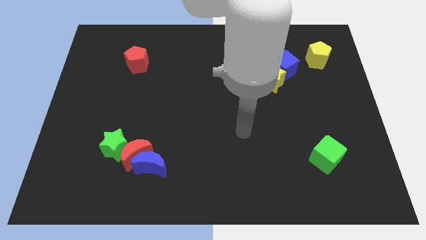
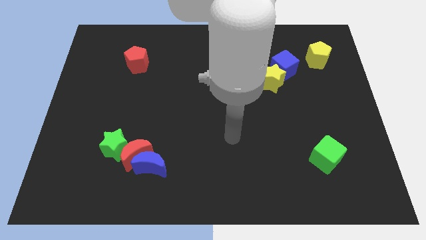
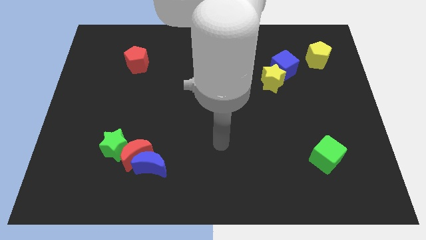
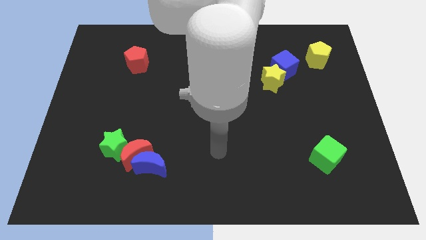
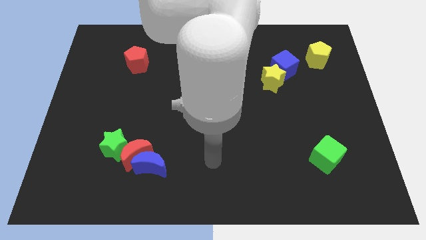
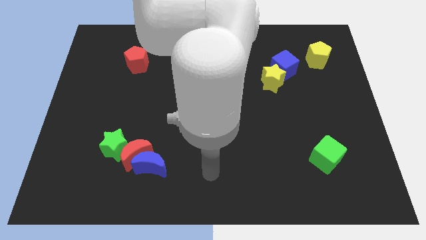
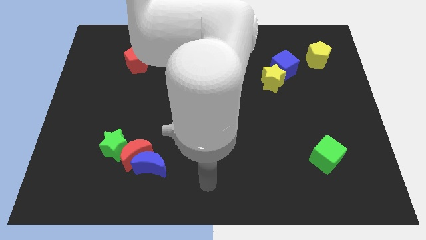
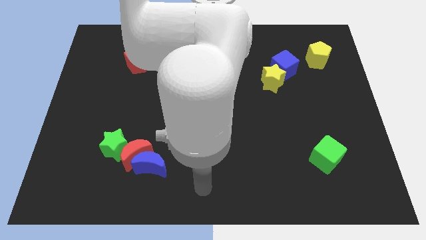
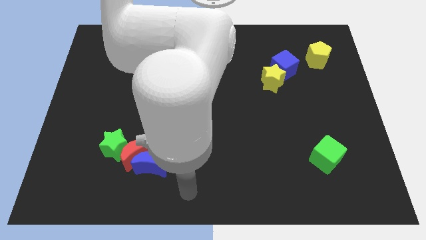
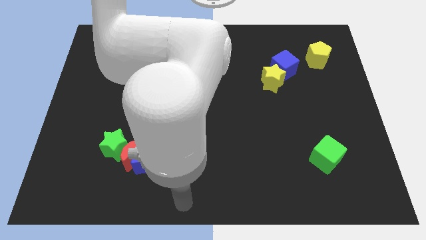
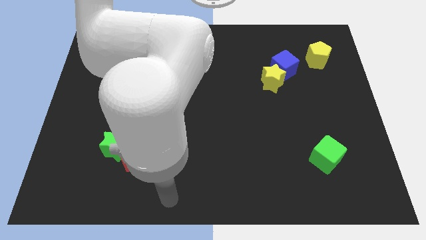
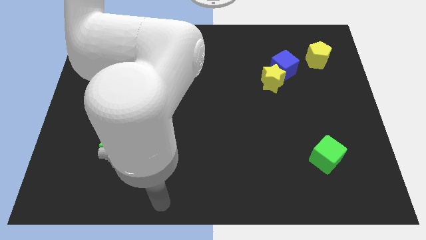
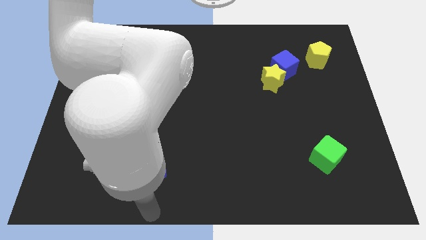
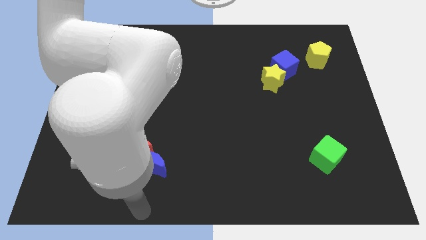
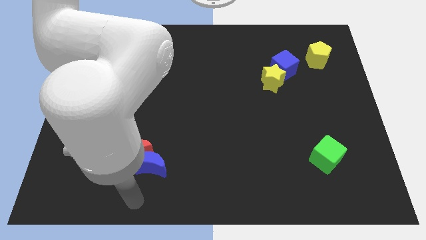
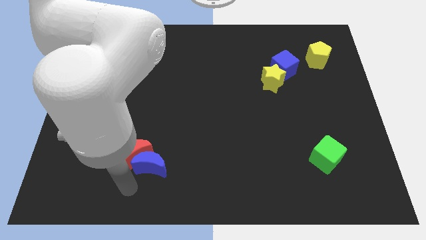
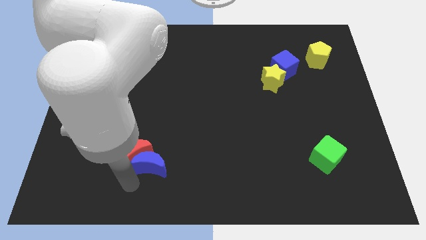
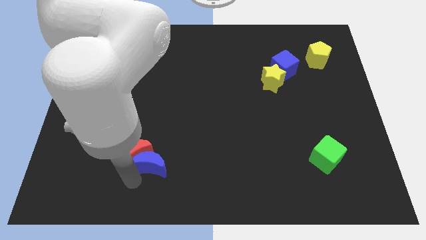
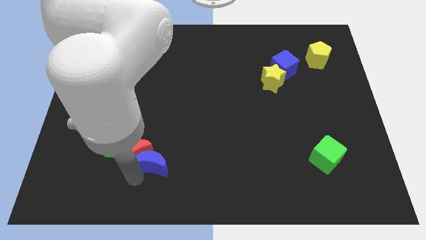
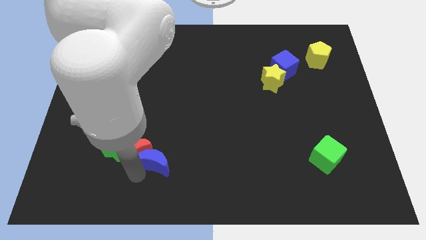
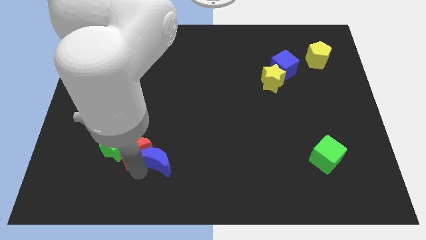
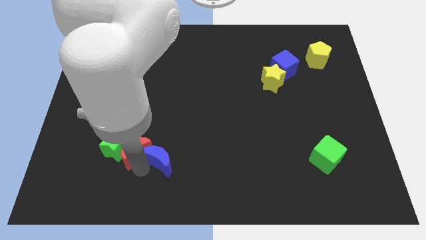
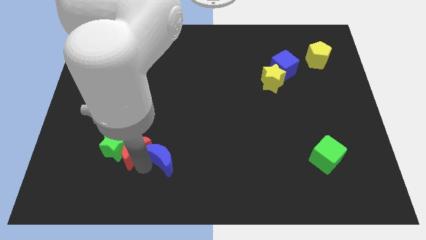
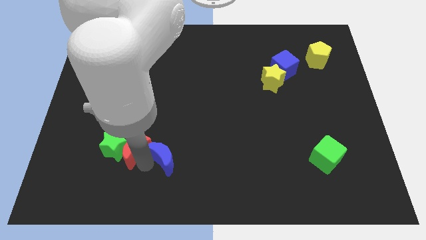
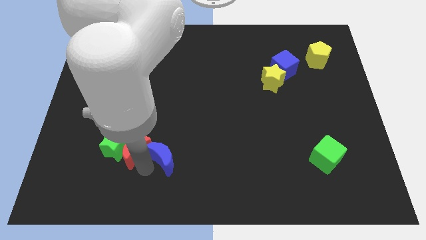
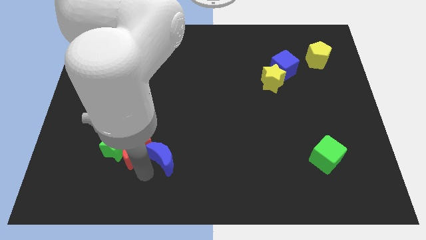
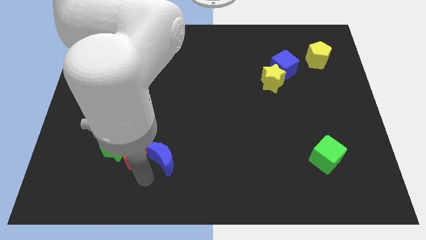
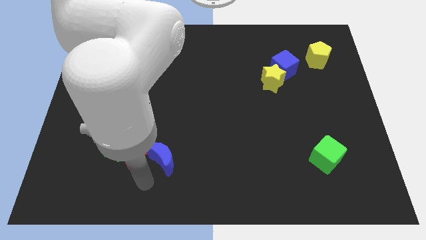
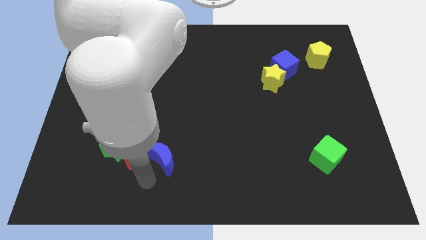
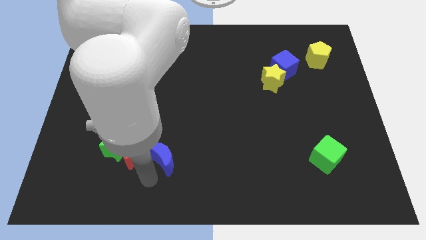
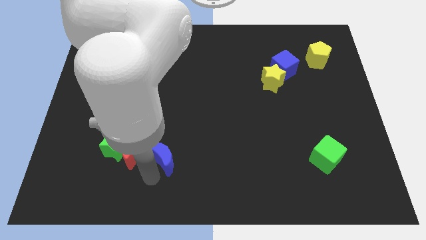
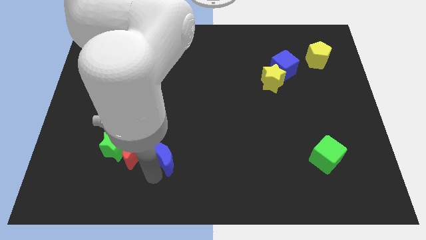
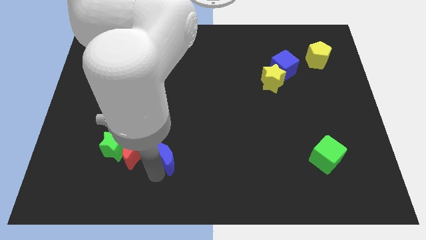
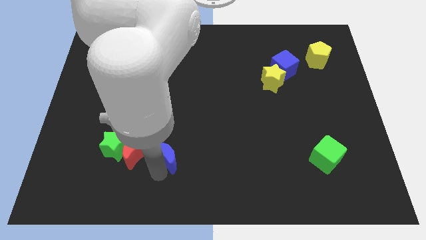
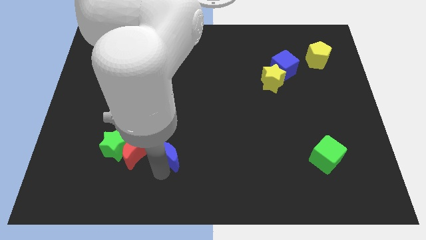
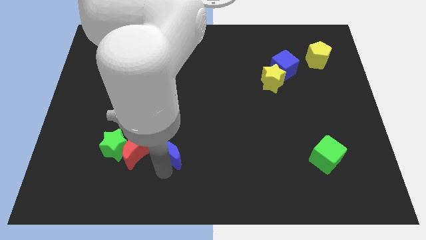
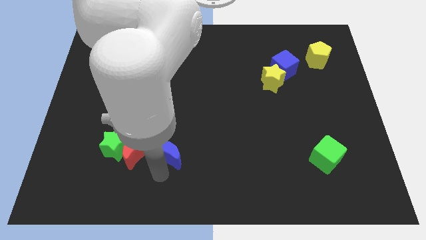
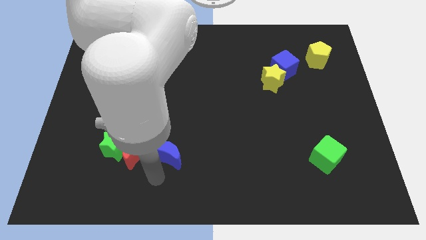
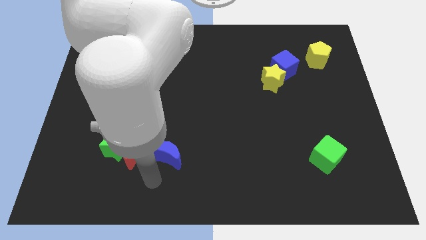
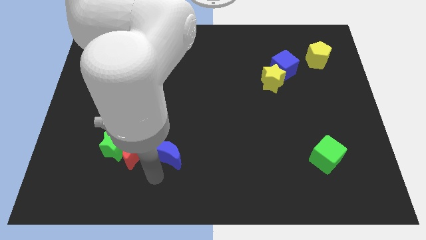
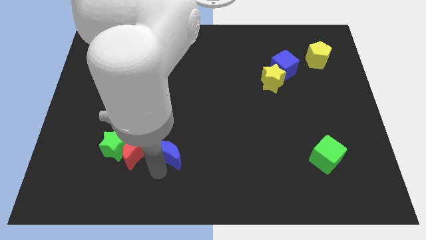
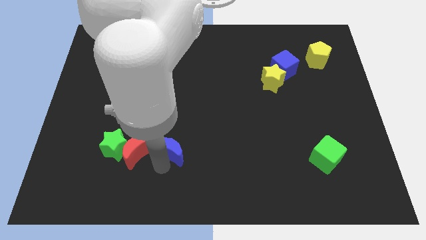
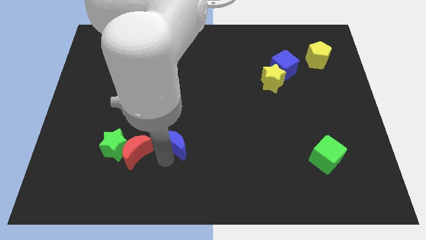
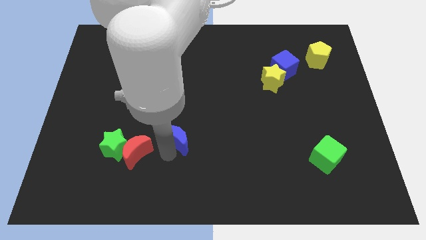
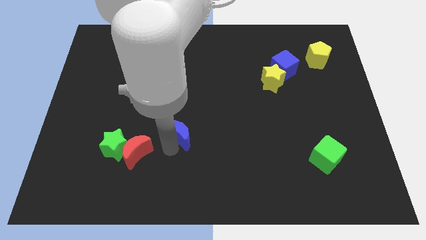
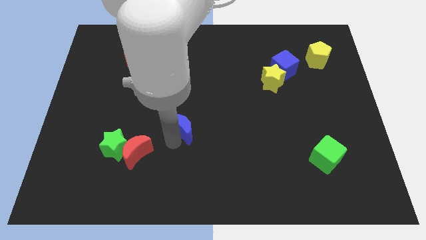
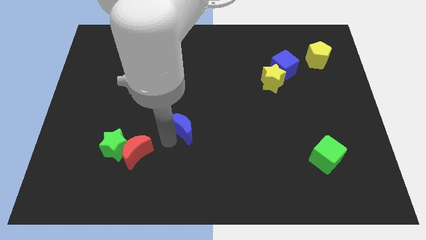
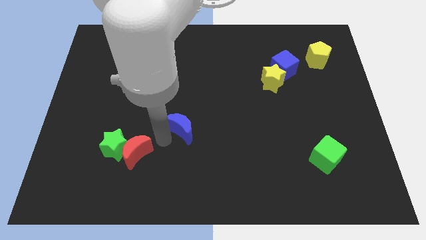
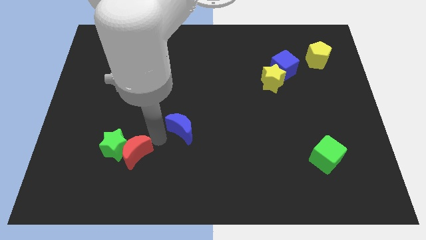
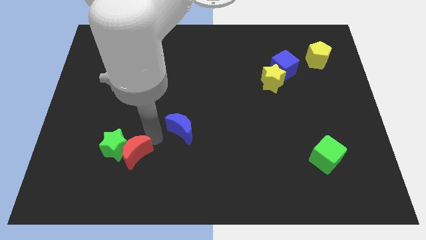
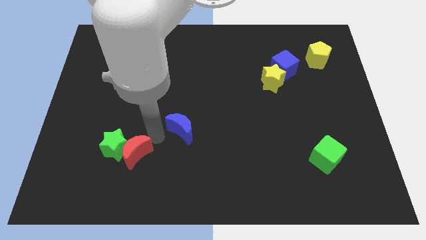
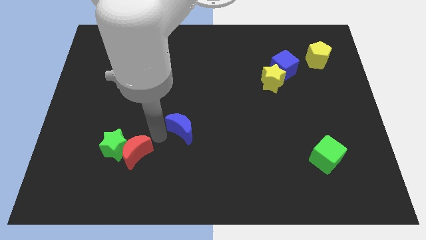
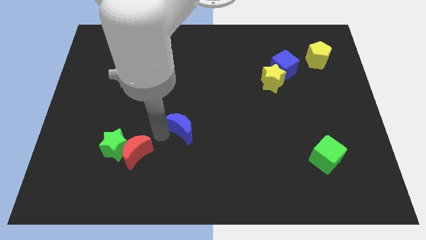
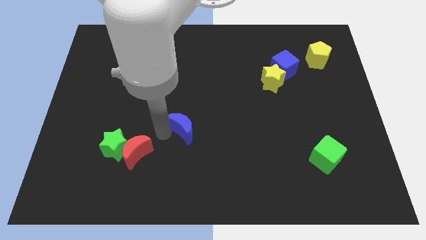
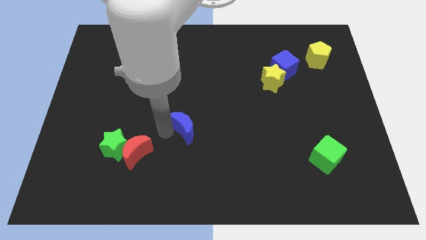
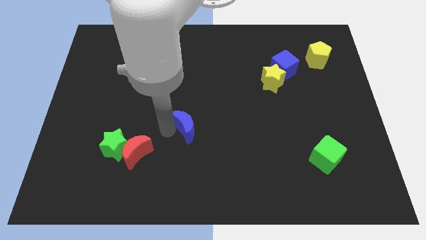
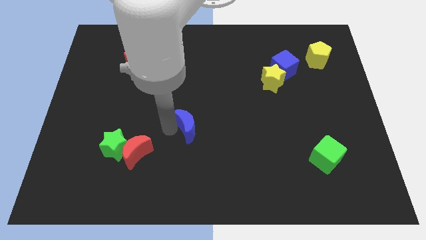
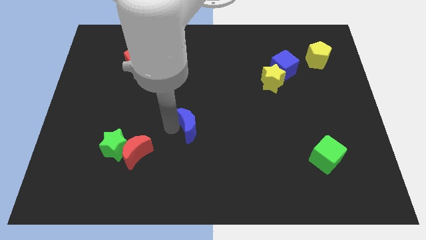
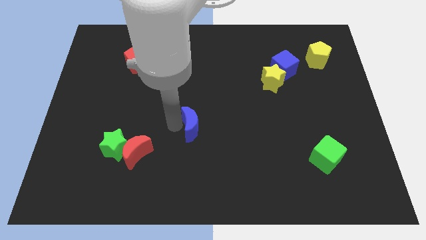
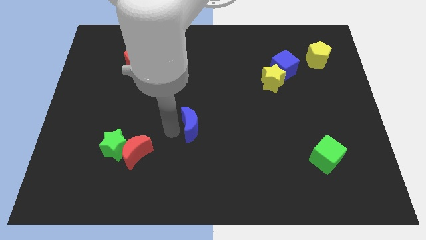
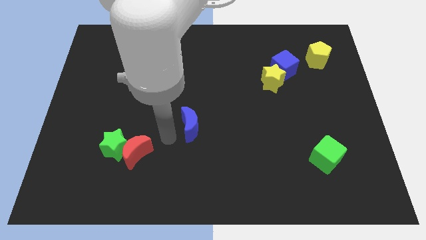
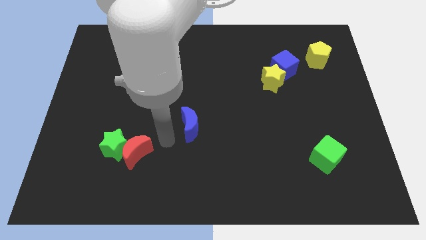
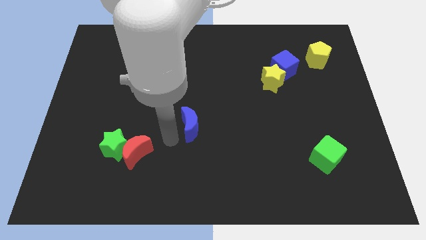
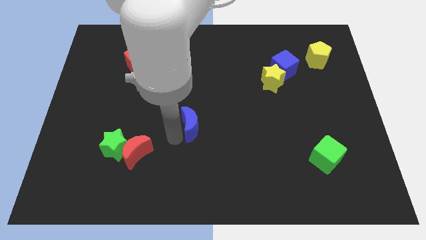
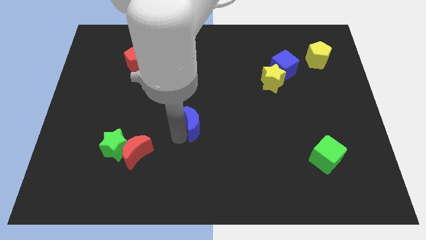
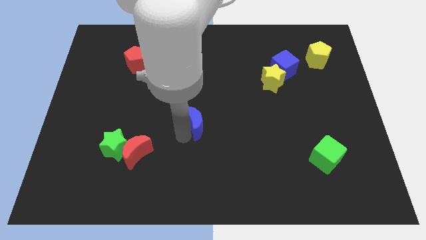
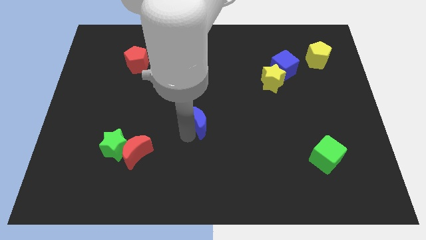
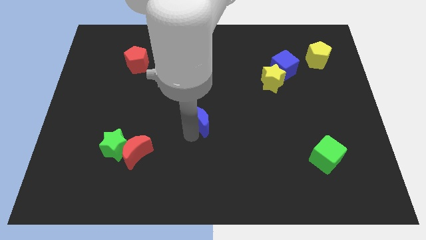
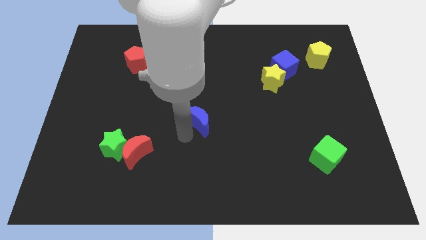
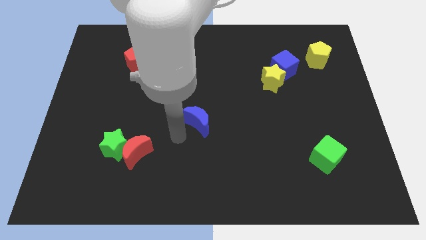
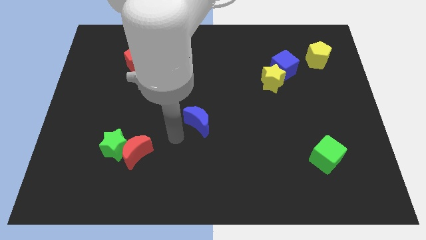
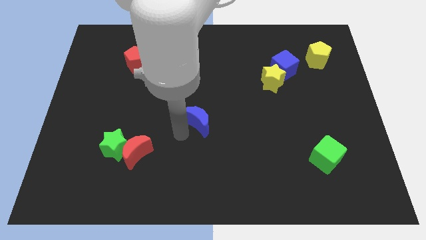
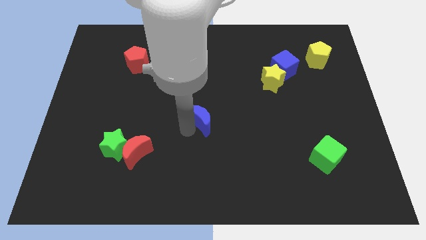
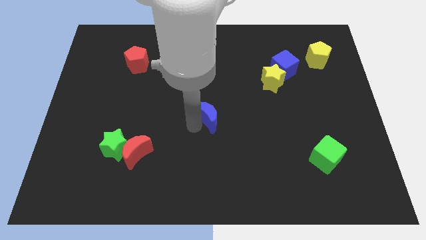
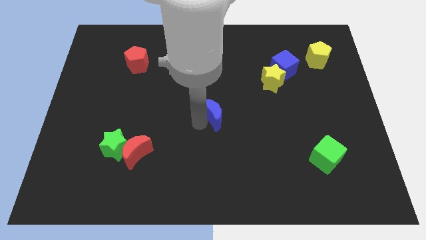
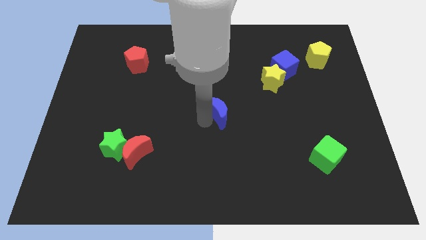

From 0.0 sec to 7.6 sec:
slide the blue moon up and right diagonally

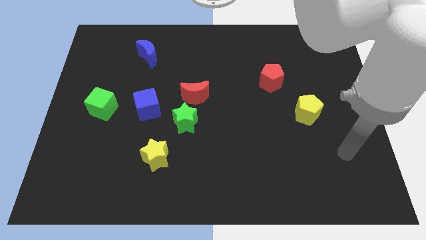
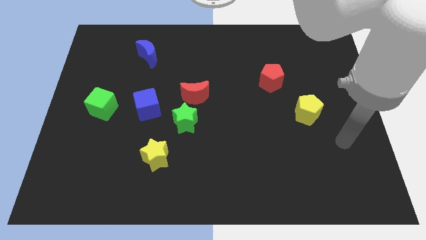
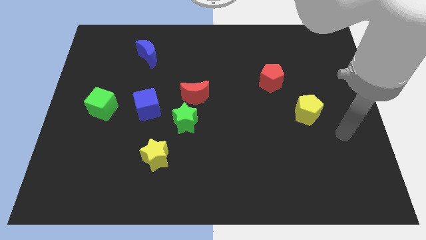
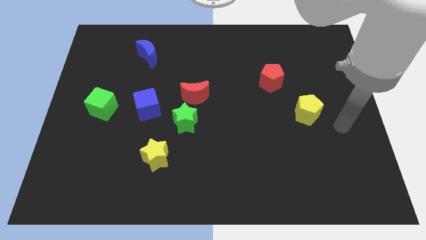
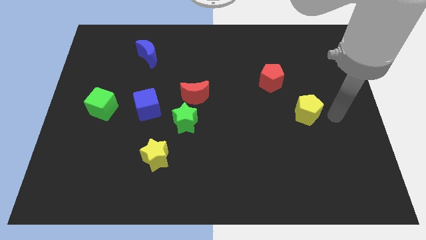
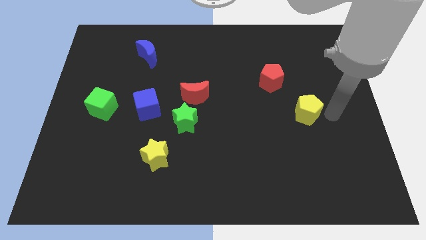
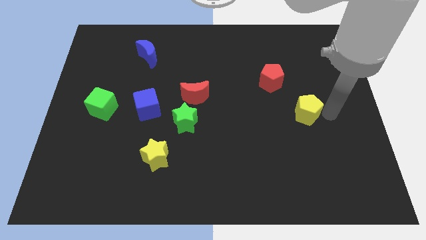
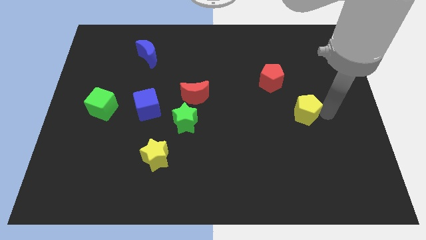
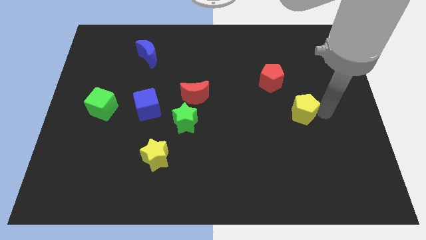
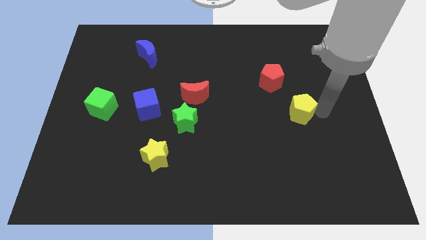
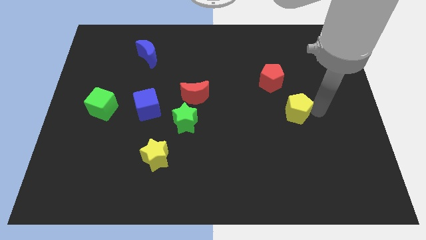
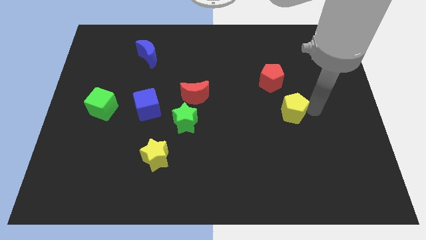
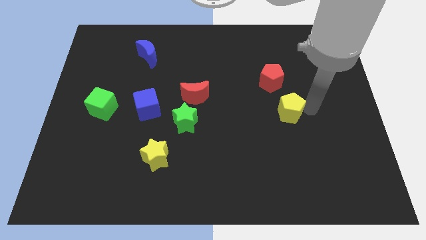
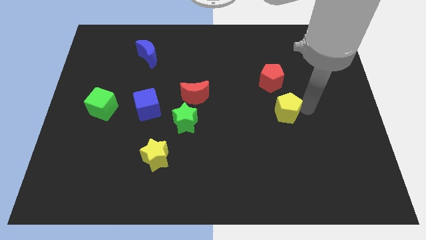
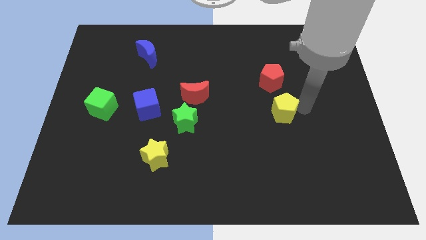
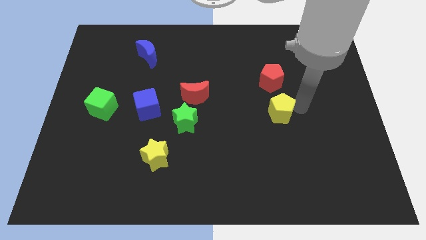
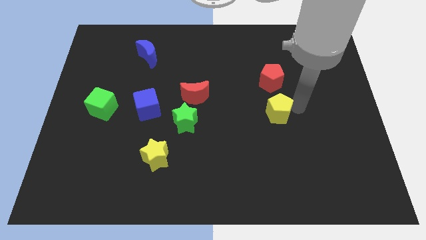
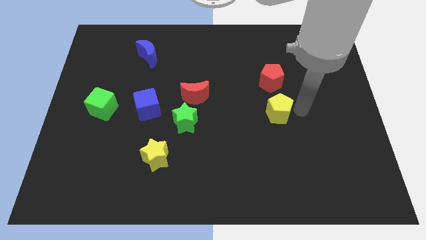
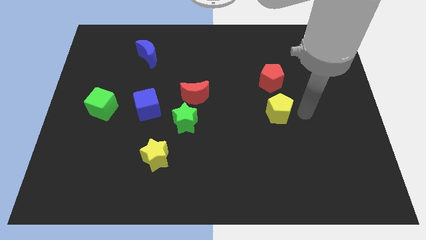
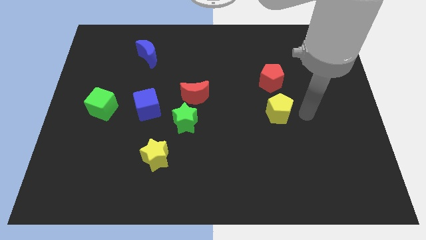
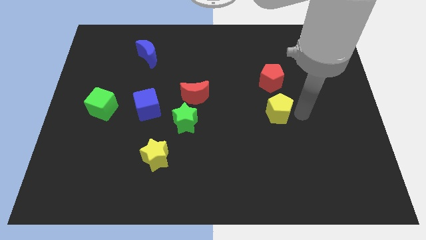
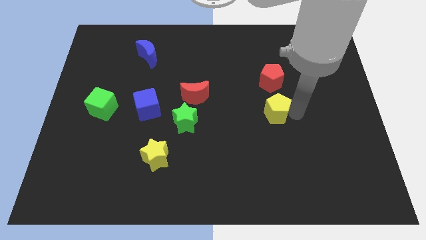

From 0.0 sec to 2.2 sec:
slide the yellow pentagon left slightly
